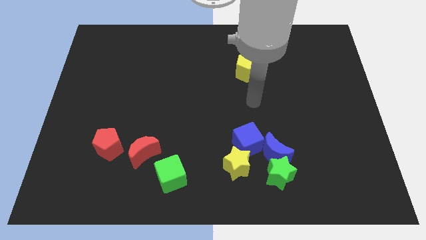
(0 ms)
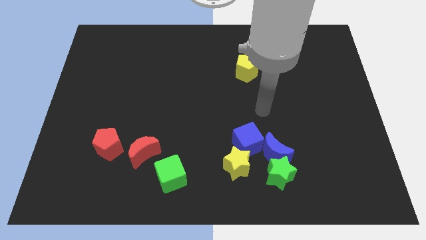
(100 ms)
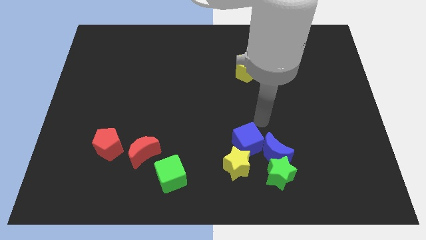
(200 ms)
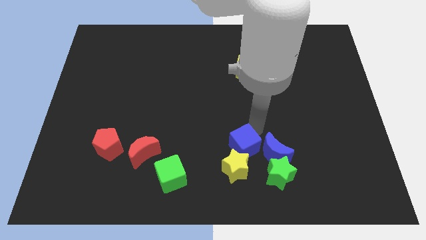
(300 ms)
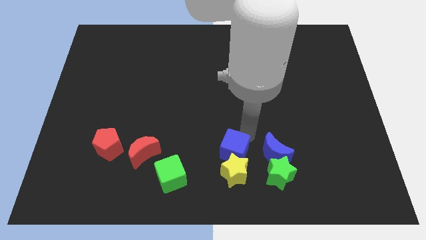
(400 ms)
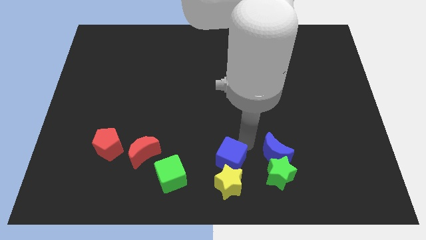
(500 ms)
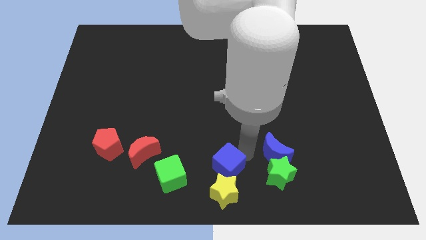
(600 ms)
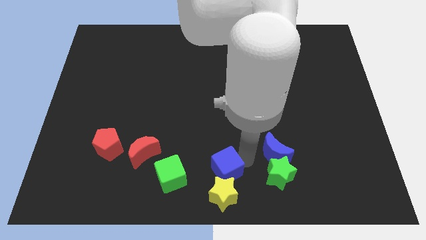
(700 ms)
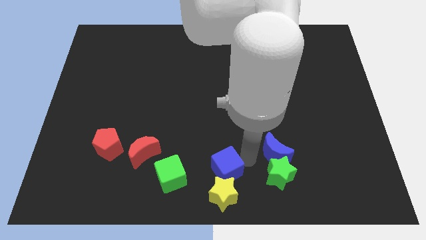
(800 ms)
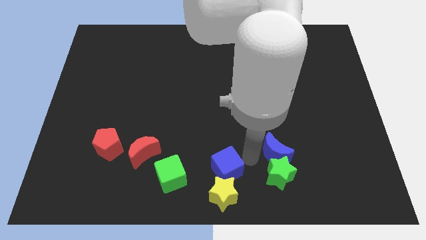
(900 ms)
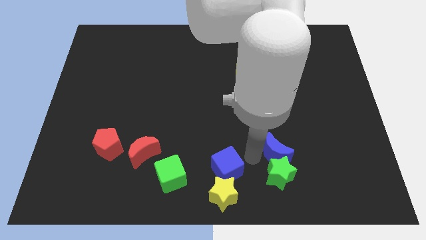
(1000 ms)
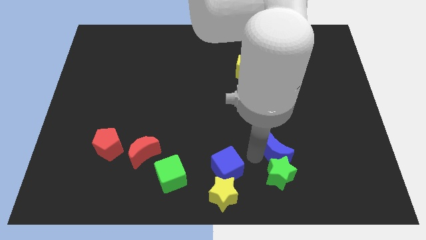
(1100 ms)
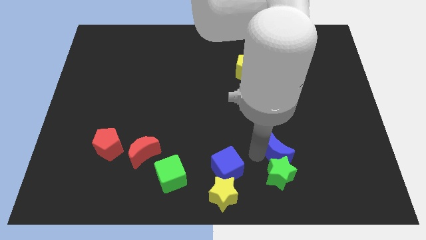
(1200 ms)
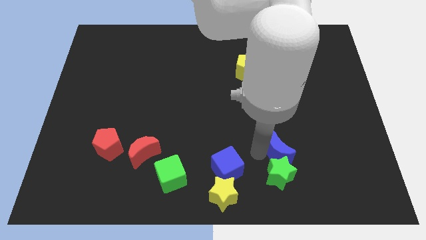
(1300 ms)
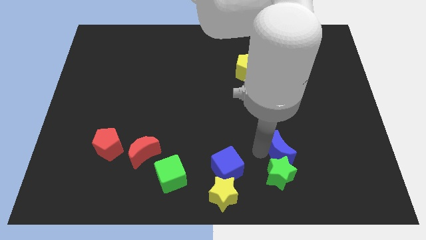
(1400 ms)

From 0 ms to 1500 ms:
move the blue moon away from the green star, blue cube, and yellow star

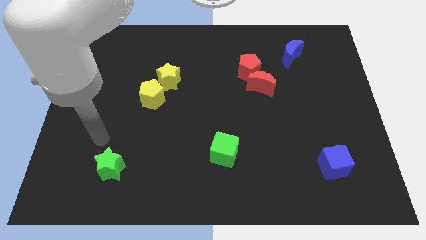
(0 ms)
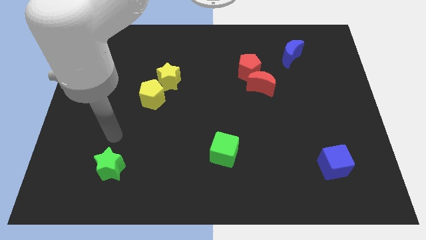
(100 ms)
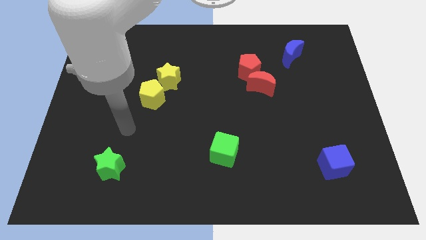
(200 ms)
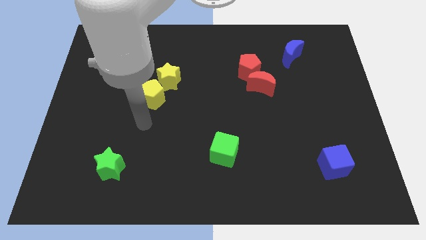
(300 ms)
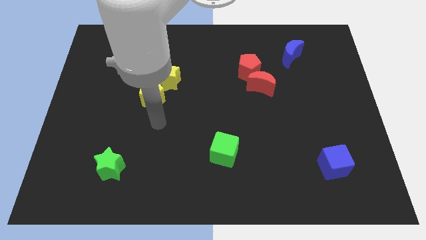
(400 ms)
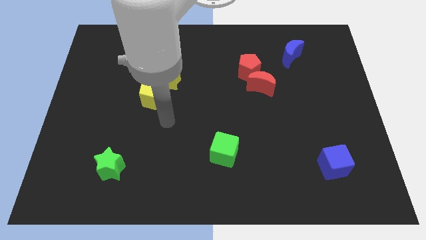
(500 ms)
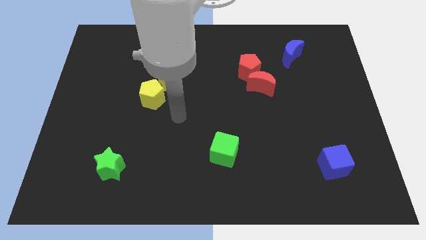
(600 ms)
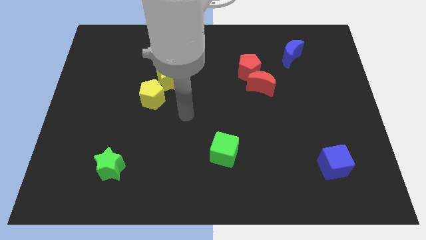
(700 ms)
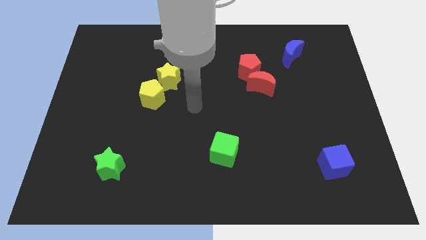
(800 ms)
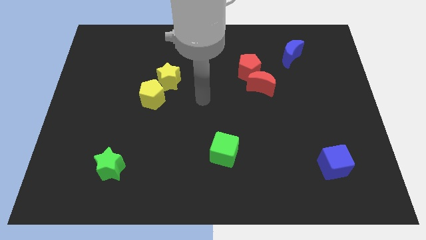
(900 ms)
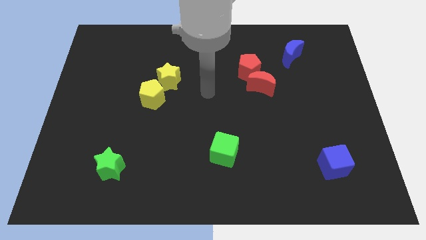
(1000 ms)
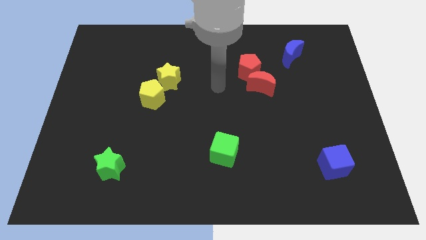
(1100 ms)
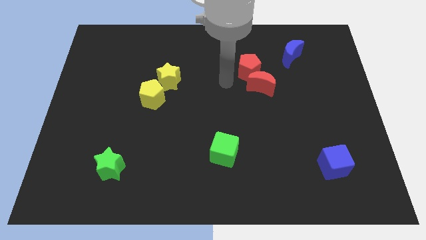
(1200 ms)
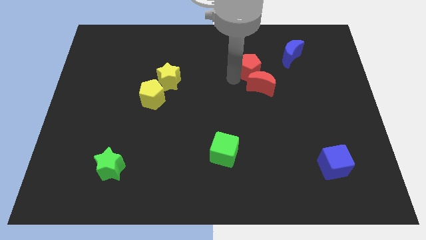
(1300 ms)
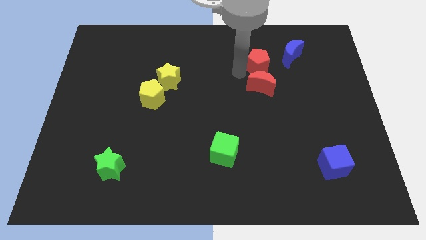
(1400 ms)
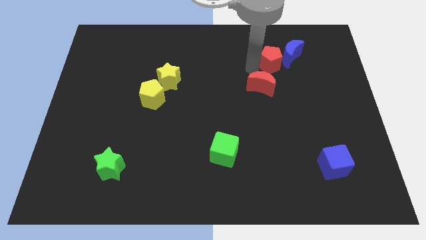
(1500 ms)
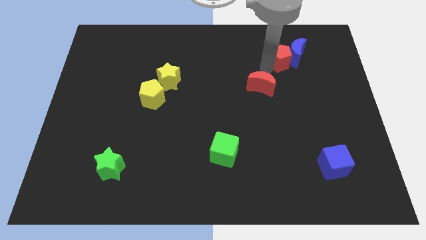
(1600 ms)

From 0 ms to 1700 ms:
move the red moon away from the red pentagon

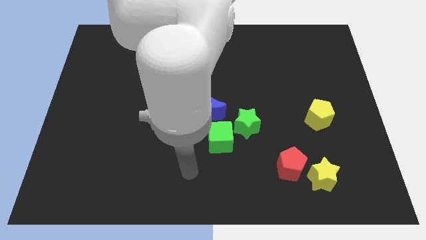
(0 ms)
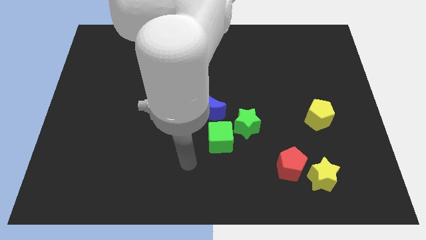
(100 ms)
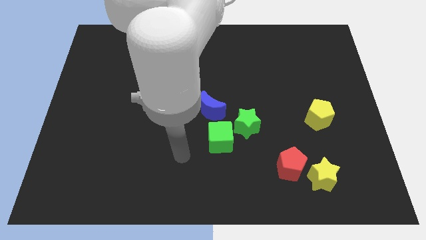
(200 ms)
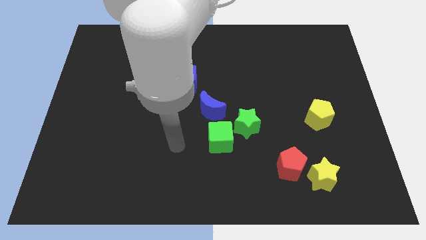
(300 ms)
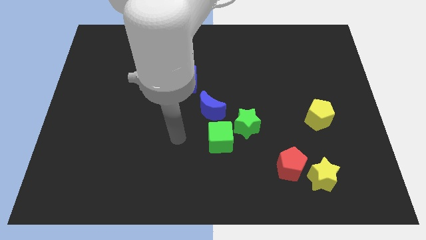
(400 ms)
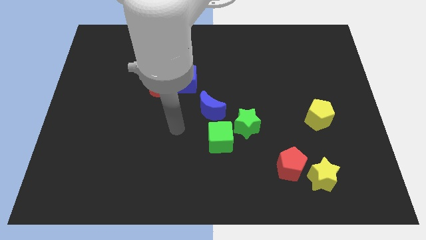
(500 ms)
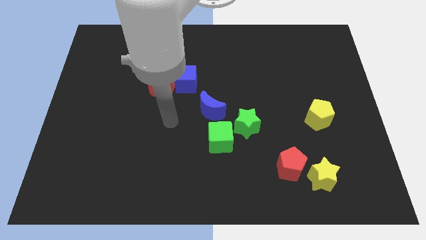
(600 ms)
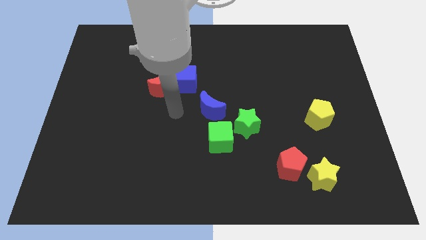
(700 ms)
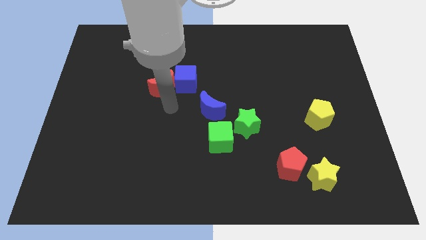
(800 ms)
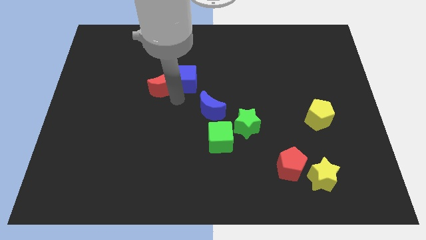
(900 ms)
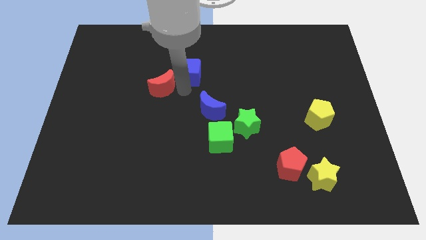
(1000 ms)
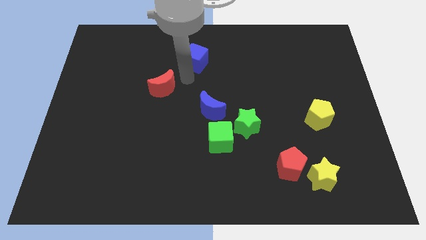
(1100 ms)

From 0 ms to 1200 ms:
separate the red moon from the blue cube

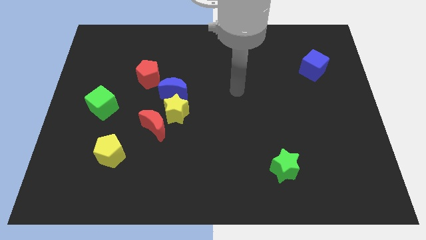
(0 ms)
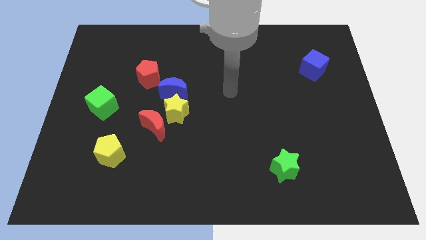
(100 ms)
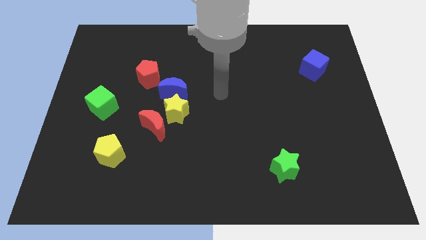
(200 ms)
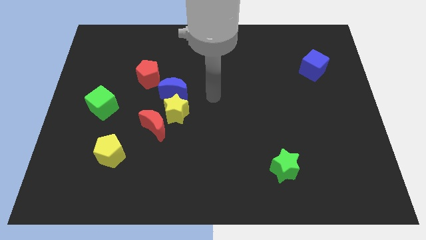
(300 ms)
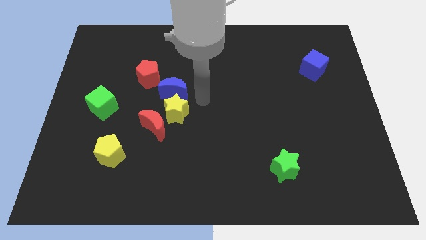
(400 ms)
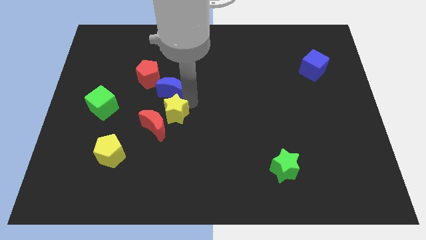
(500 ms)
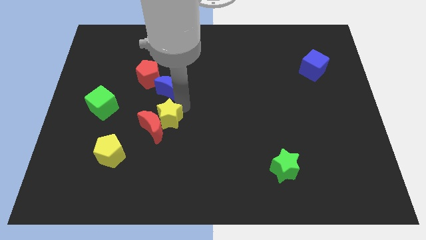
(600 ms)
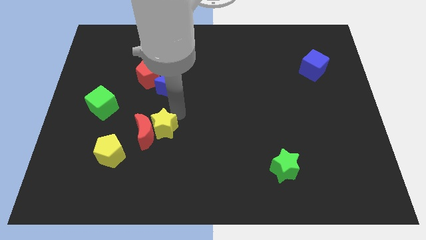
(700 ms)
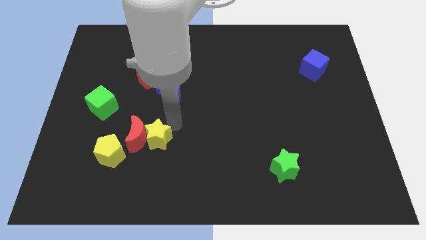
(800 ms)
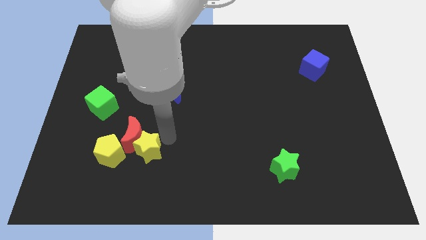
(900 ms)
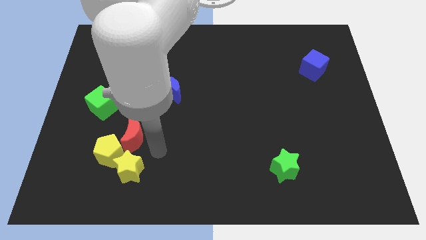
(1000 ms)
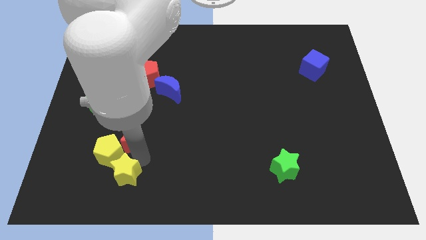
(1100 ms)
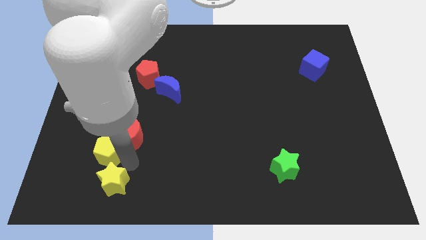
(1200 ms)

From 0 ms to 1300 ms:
pull the red moon apart from the yellow star

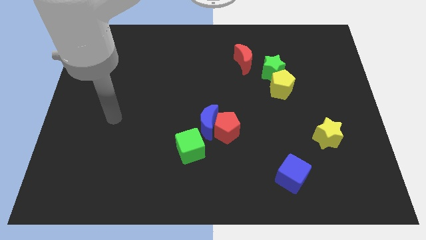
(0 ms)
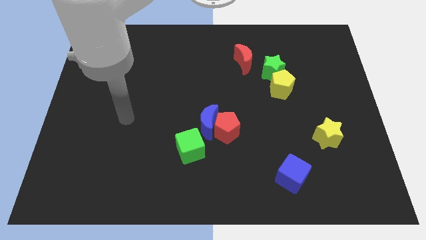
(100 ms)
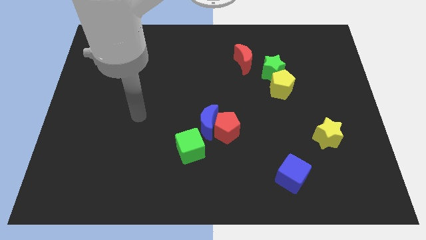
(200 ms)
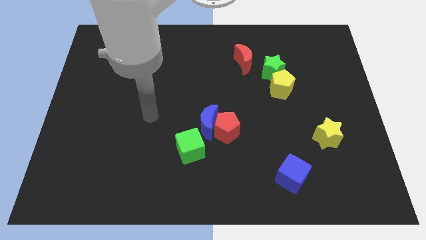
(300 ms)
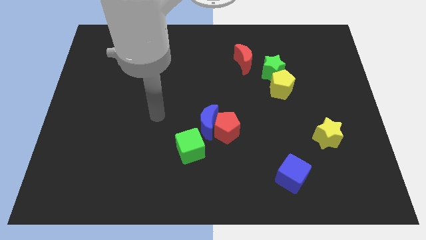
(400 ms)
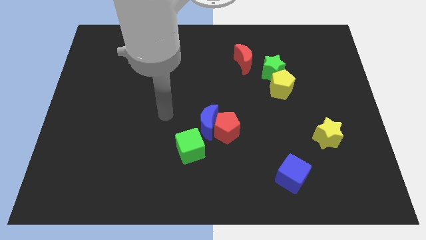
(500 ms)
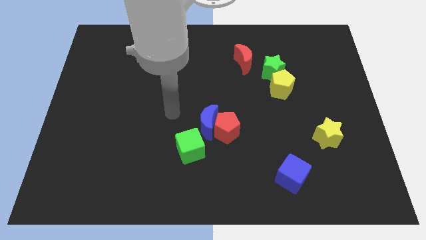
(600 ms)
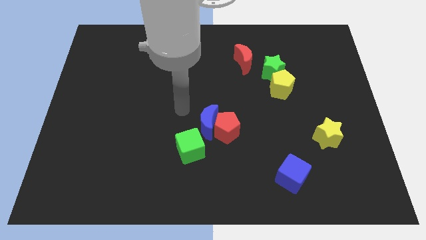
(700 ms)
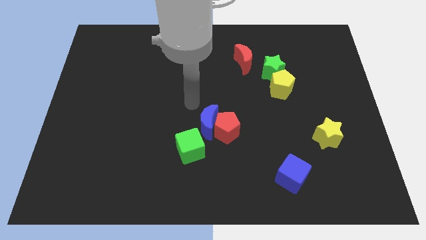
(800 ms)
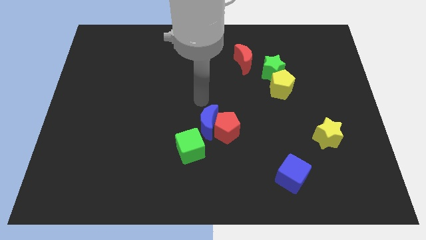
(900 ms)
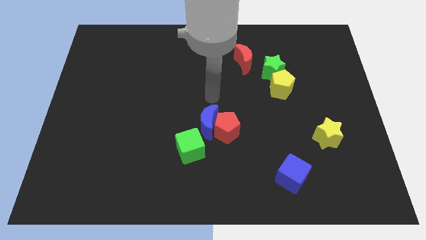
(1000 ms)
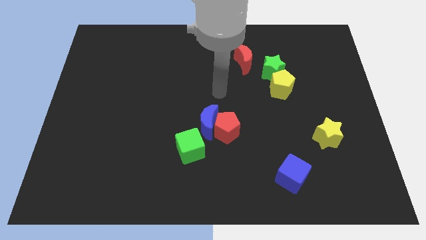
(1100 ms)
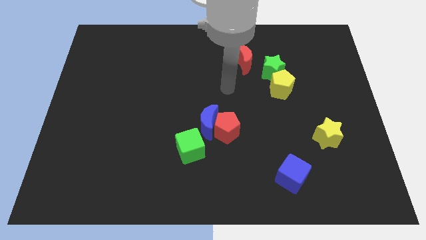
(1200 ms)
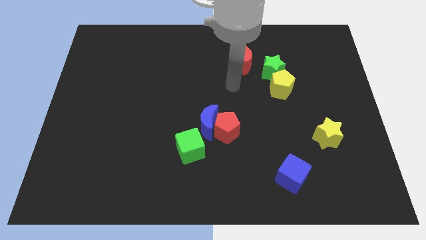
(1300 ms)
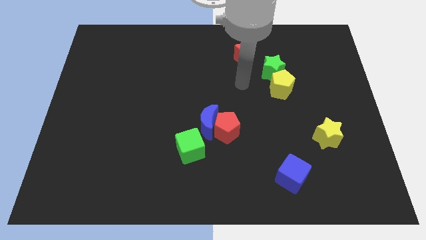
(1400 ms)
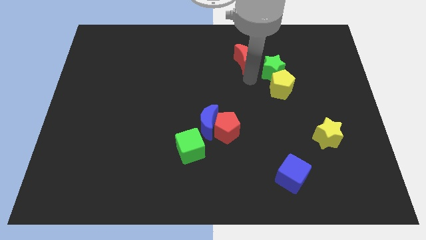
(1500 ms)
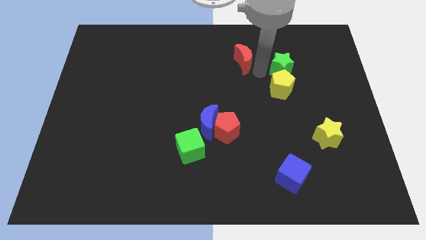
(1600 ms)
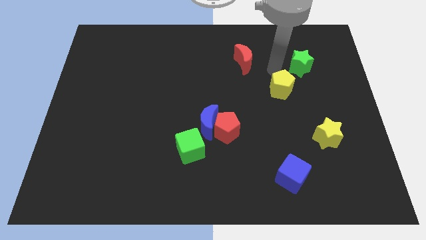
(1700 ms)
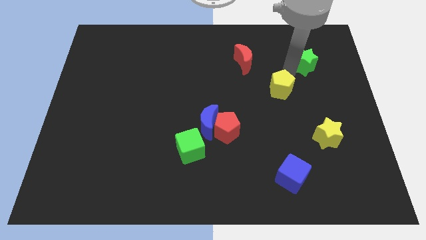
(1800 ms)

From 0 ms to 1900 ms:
pull the yellow pentagon apart from the green star

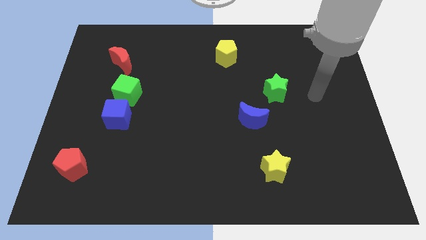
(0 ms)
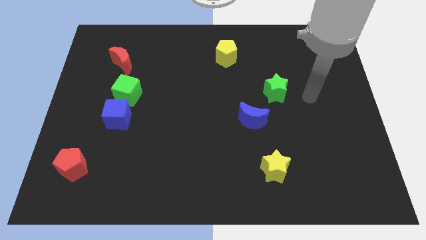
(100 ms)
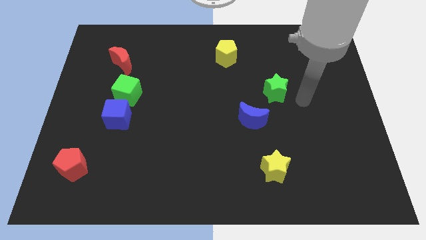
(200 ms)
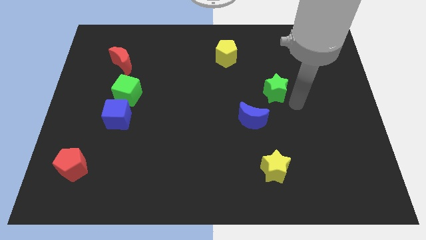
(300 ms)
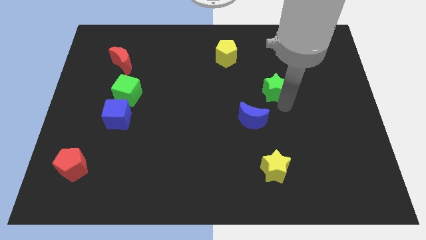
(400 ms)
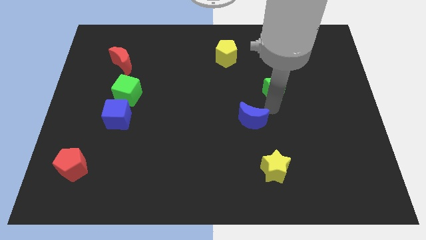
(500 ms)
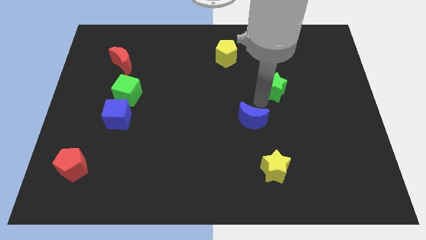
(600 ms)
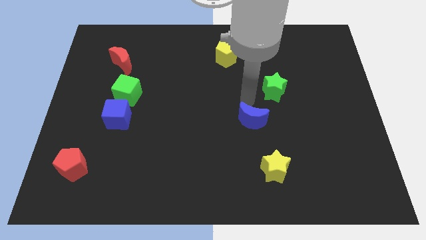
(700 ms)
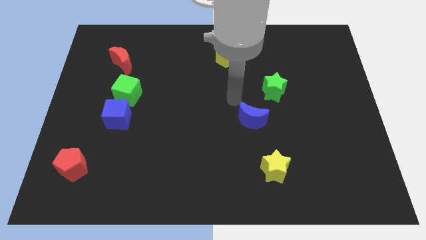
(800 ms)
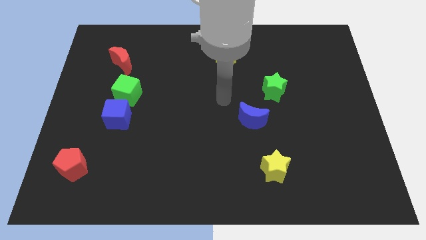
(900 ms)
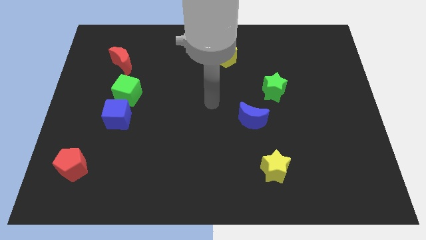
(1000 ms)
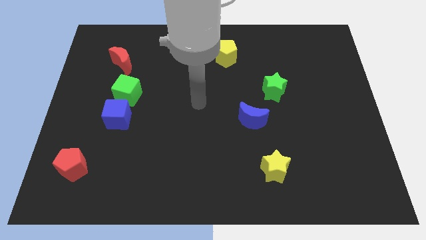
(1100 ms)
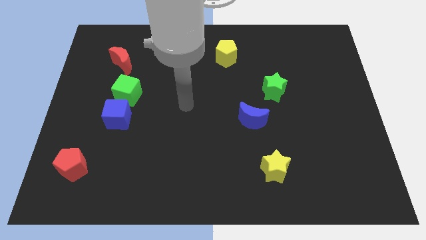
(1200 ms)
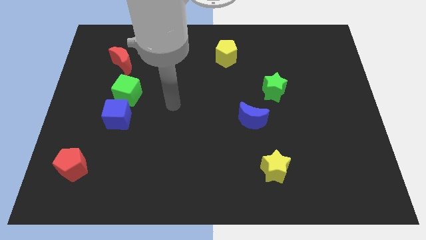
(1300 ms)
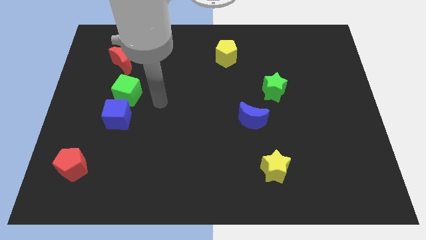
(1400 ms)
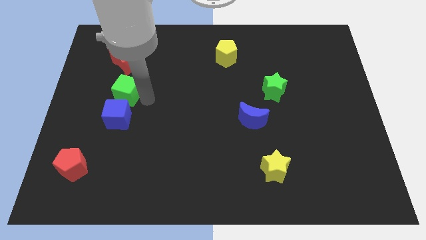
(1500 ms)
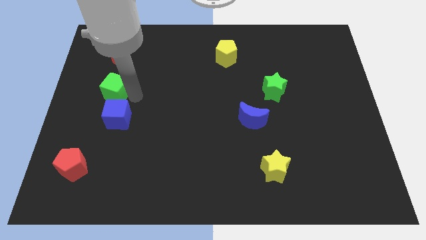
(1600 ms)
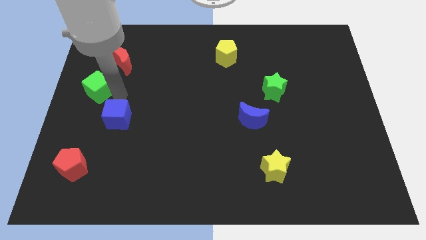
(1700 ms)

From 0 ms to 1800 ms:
move the blue cube away from the green cube
